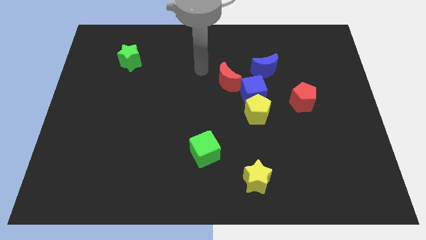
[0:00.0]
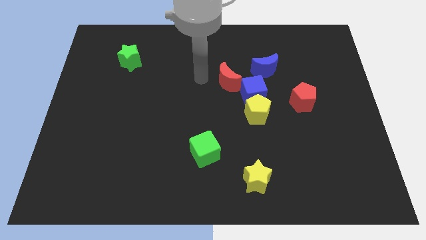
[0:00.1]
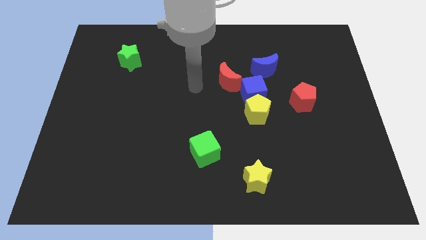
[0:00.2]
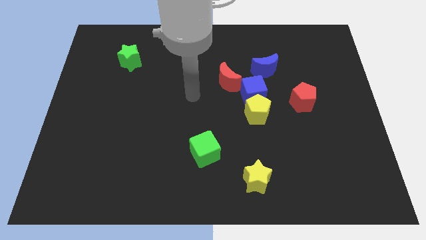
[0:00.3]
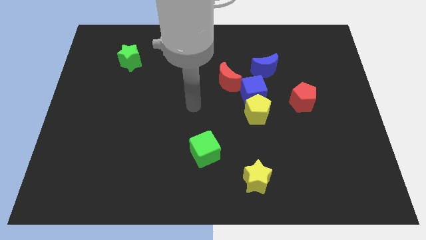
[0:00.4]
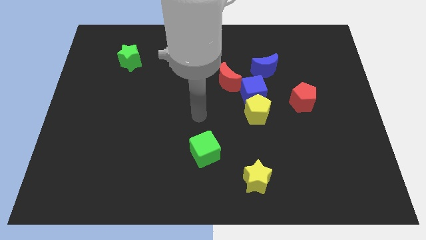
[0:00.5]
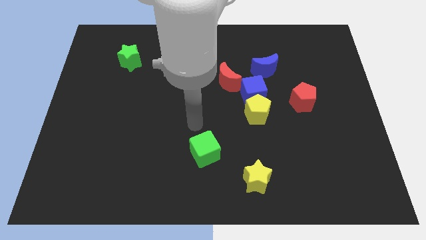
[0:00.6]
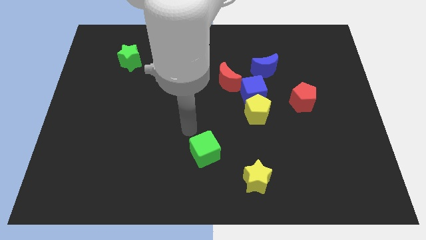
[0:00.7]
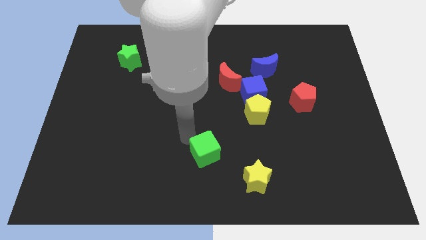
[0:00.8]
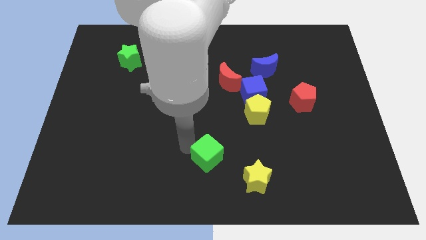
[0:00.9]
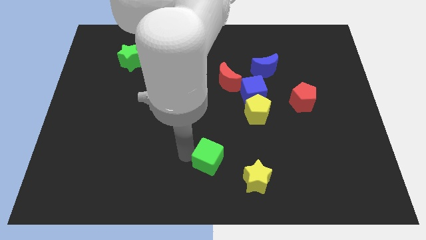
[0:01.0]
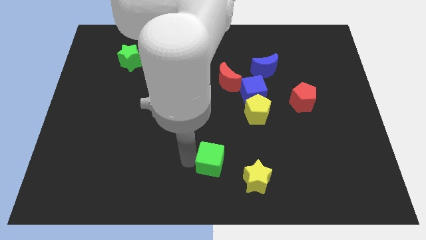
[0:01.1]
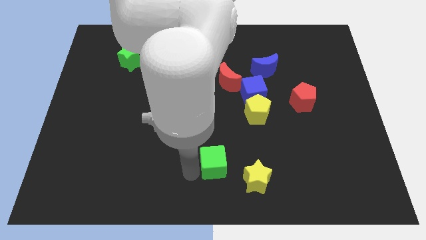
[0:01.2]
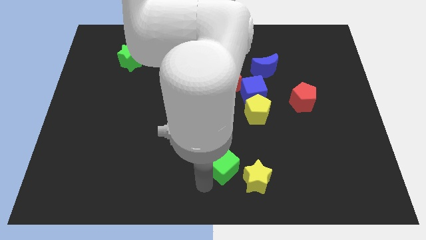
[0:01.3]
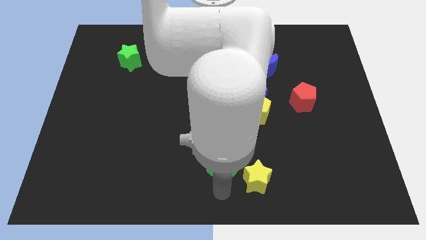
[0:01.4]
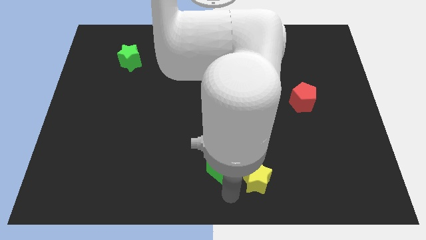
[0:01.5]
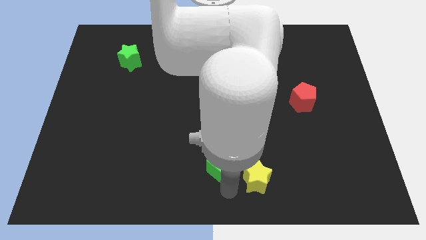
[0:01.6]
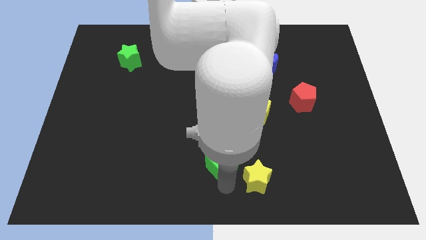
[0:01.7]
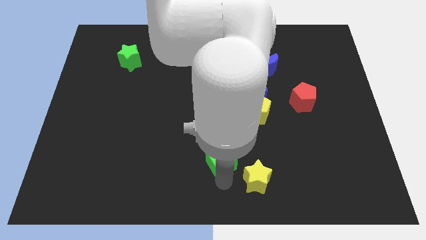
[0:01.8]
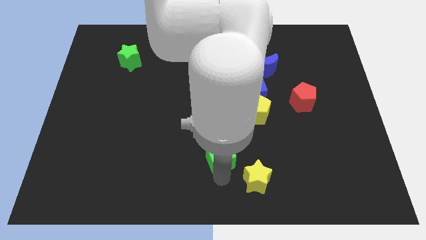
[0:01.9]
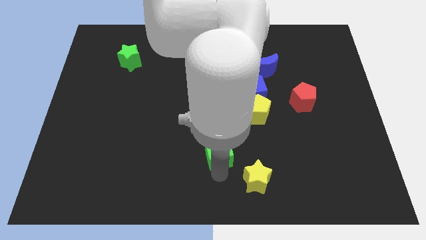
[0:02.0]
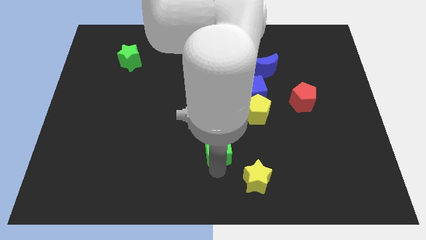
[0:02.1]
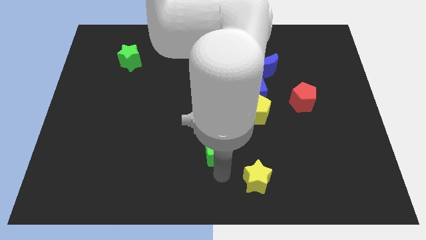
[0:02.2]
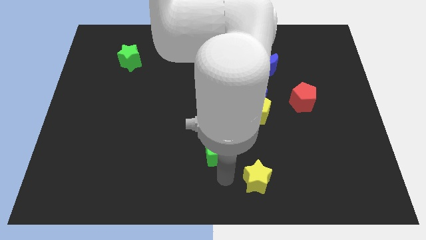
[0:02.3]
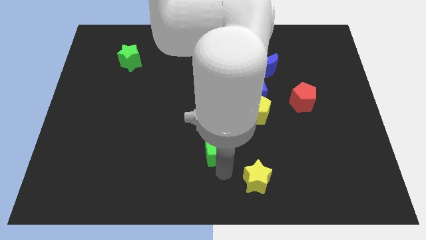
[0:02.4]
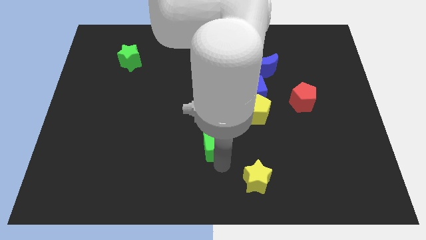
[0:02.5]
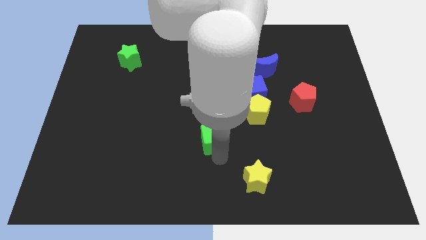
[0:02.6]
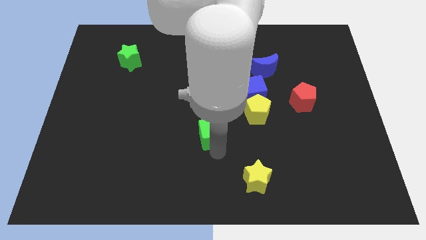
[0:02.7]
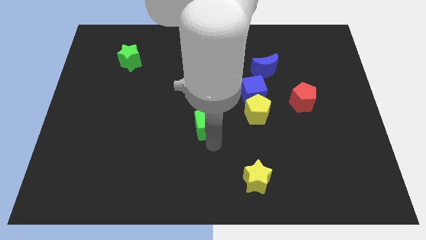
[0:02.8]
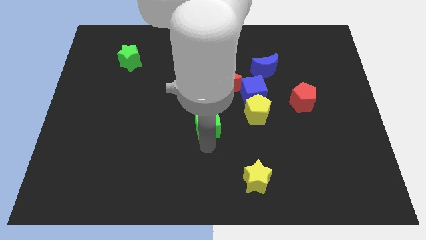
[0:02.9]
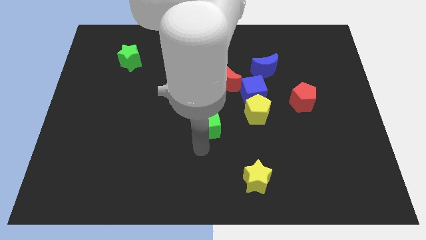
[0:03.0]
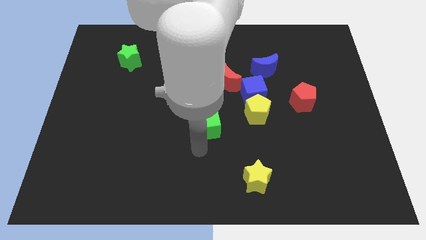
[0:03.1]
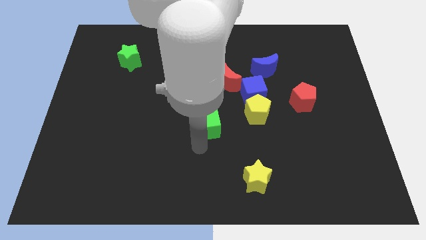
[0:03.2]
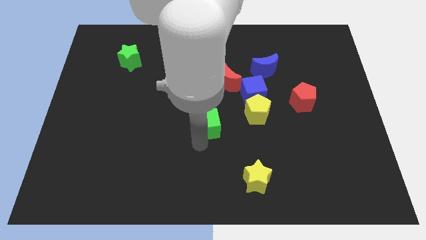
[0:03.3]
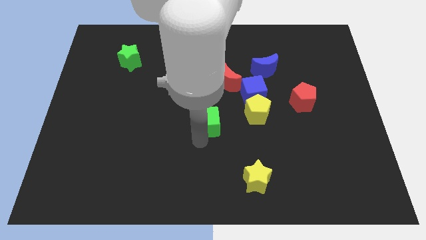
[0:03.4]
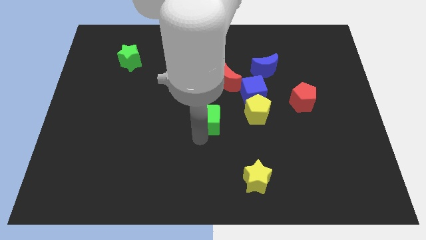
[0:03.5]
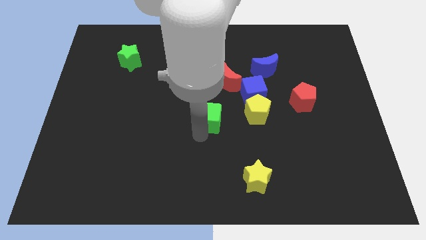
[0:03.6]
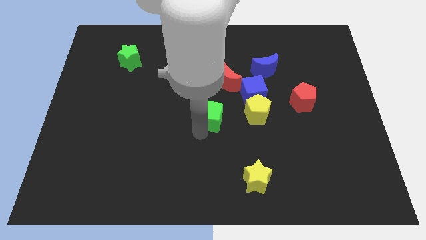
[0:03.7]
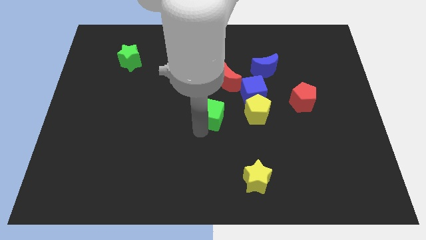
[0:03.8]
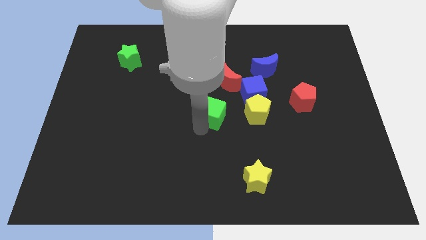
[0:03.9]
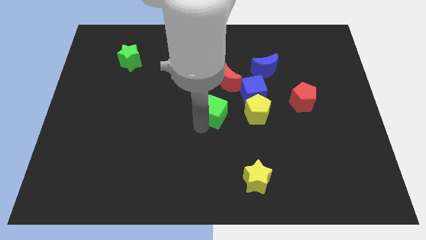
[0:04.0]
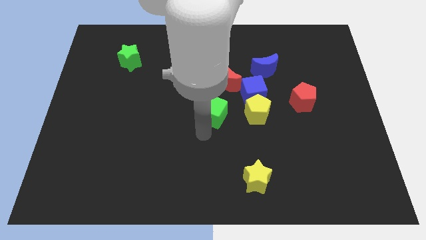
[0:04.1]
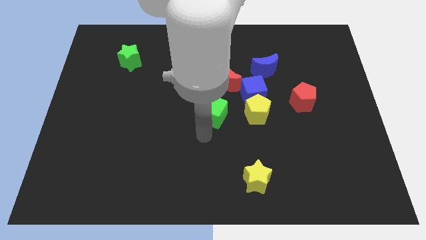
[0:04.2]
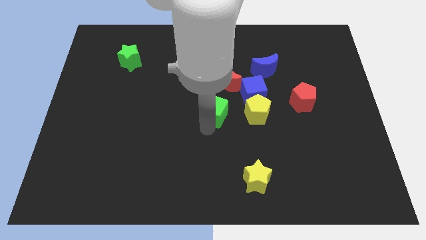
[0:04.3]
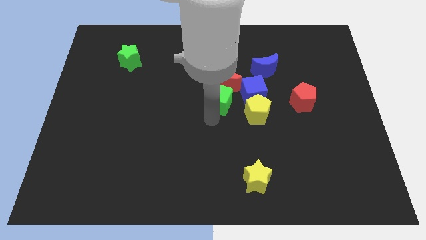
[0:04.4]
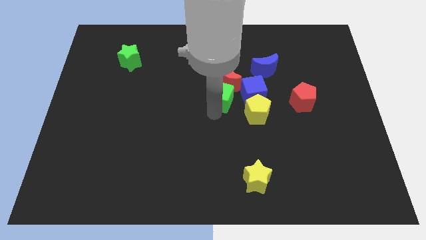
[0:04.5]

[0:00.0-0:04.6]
move the green cube towards the red moon

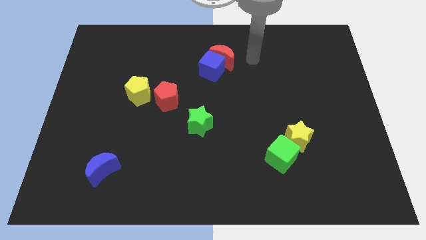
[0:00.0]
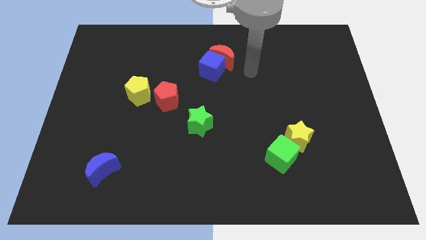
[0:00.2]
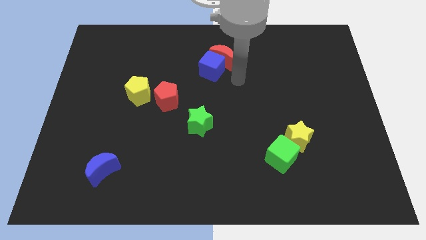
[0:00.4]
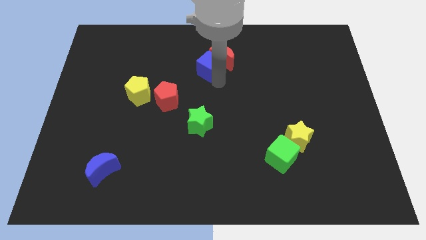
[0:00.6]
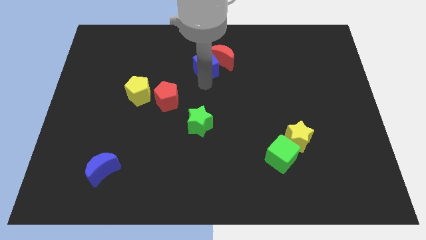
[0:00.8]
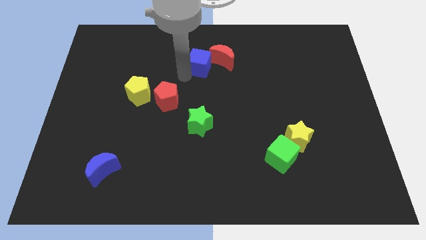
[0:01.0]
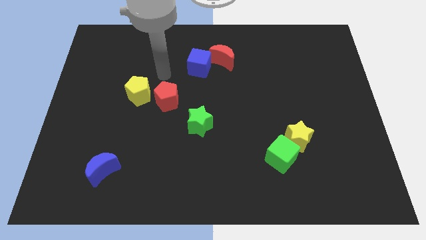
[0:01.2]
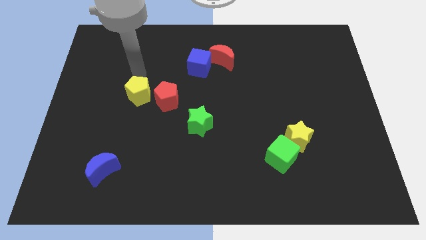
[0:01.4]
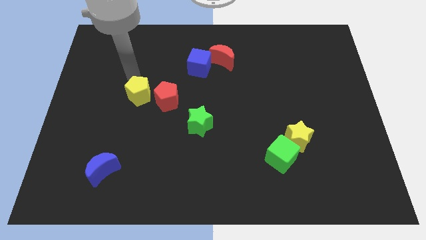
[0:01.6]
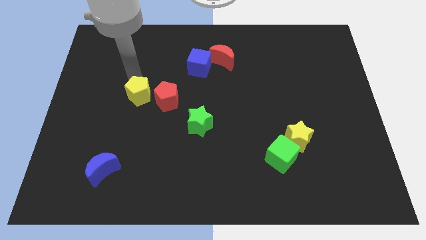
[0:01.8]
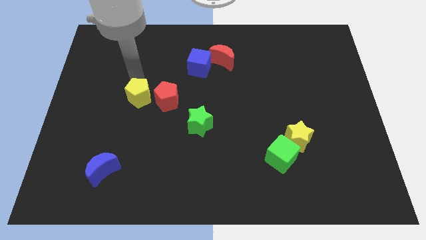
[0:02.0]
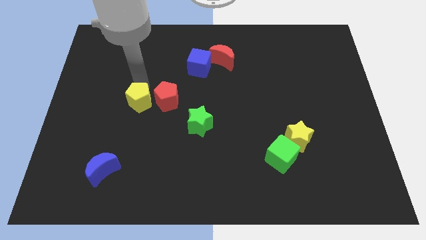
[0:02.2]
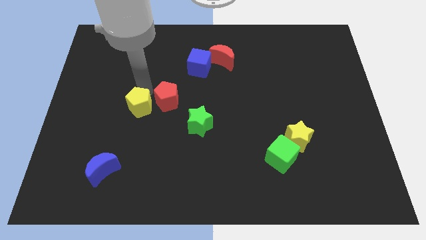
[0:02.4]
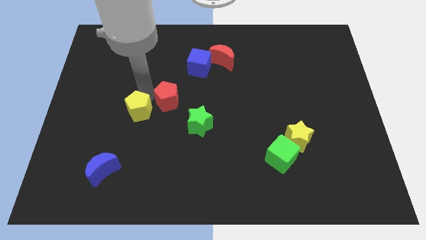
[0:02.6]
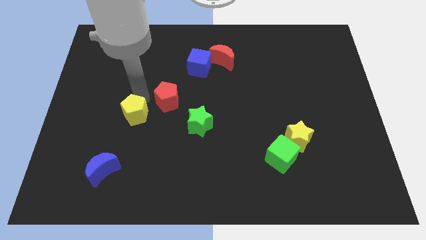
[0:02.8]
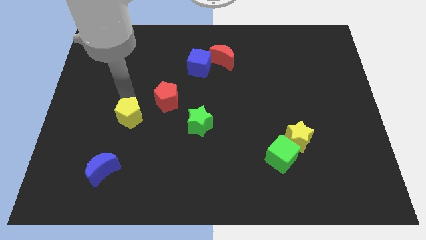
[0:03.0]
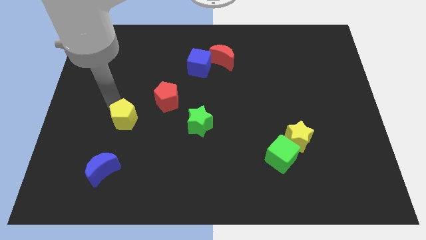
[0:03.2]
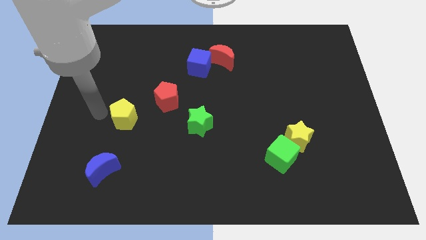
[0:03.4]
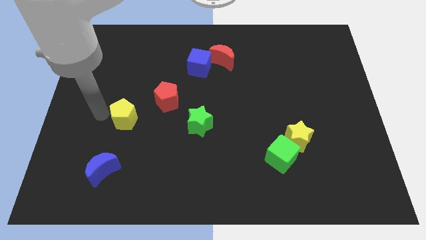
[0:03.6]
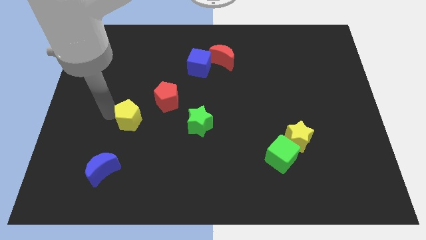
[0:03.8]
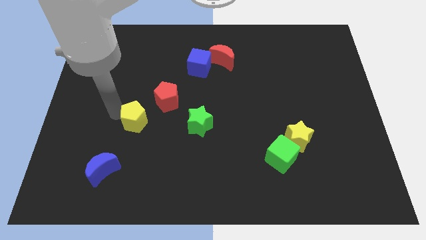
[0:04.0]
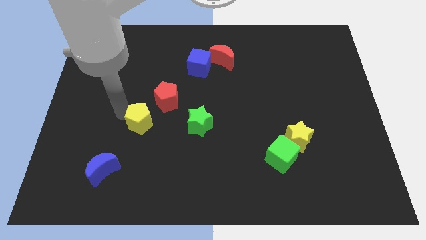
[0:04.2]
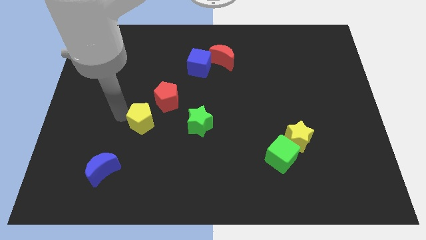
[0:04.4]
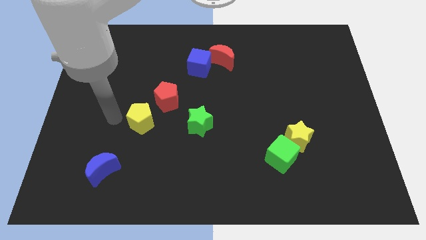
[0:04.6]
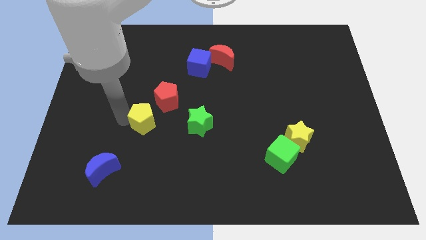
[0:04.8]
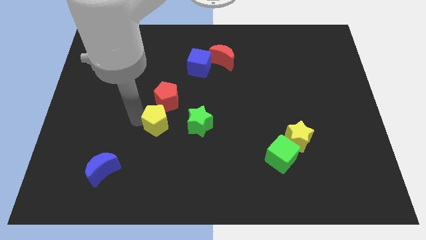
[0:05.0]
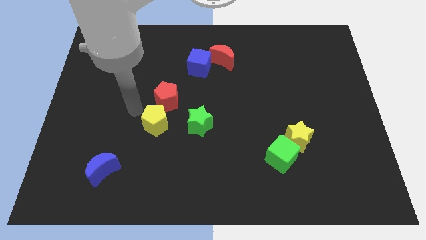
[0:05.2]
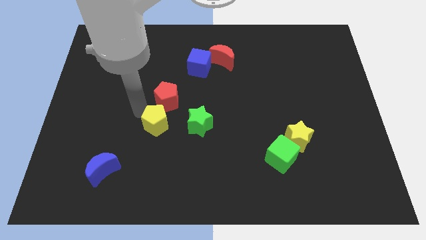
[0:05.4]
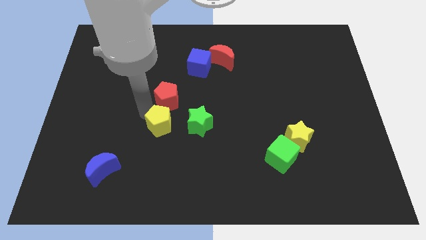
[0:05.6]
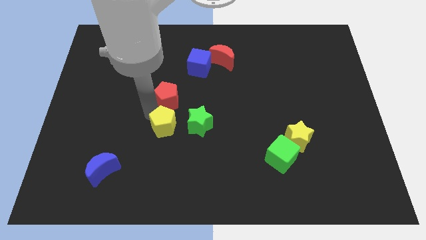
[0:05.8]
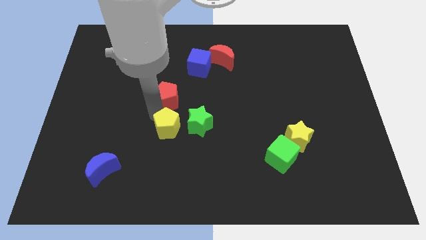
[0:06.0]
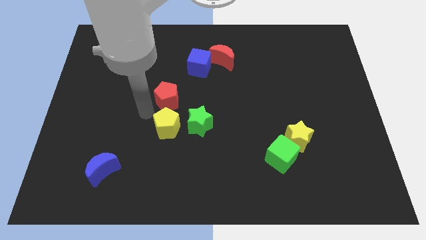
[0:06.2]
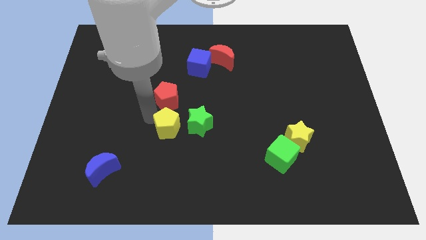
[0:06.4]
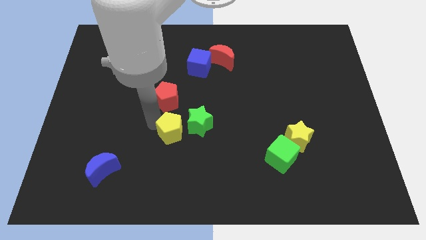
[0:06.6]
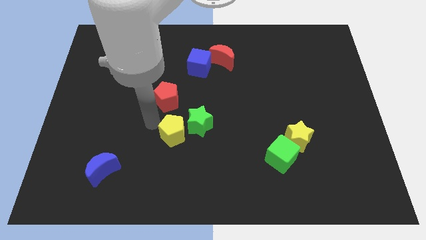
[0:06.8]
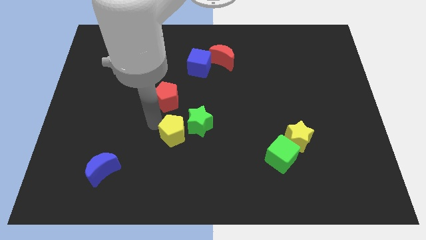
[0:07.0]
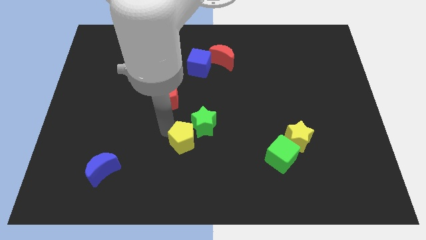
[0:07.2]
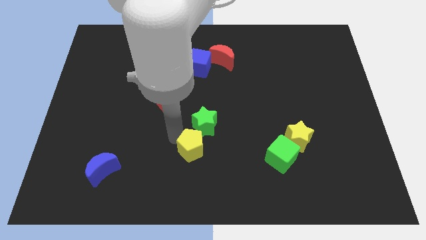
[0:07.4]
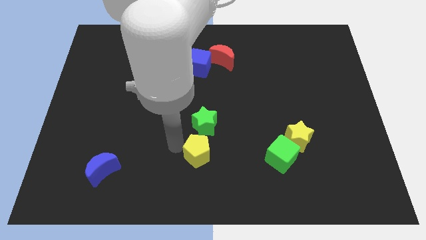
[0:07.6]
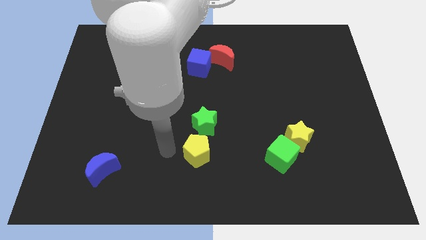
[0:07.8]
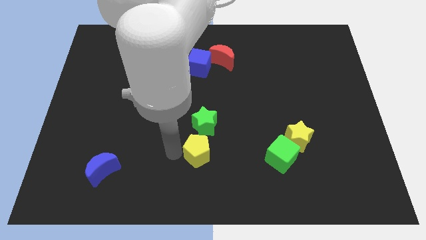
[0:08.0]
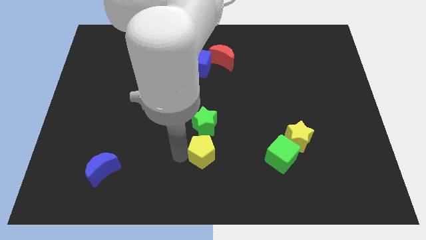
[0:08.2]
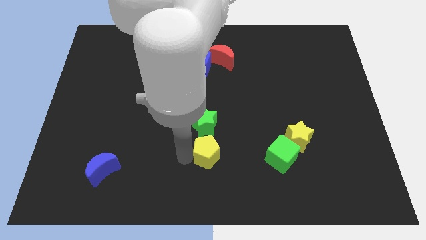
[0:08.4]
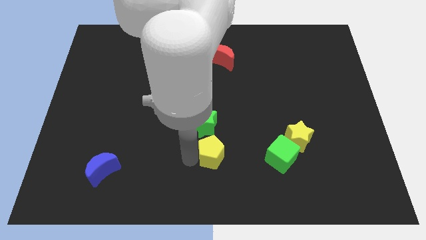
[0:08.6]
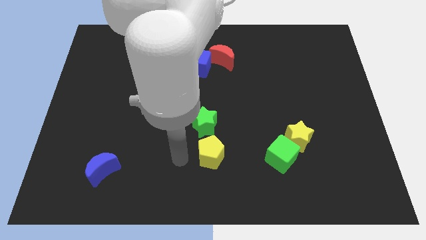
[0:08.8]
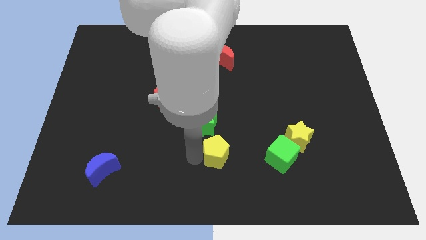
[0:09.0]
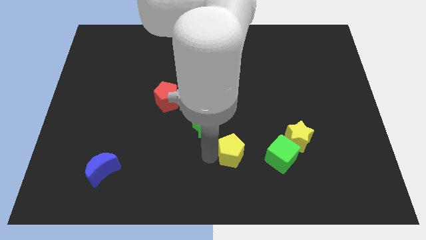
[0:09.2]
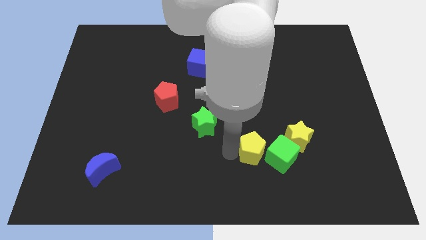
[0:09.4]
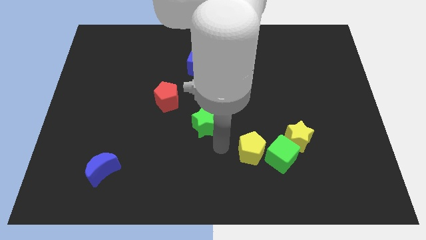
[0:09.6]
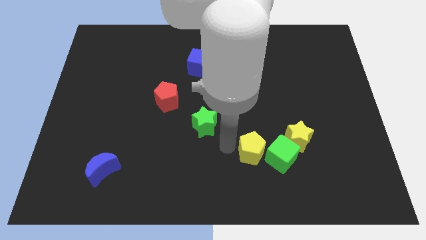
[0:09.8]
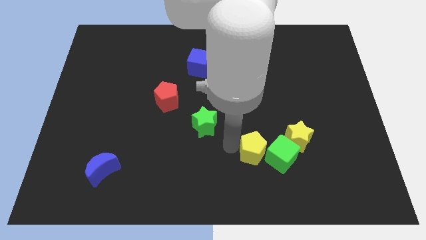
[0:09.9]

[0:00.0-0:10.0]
push the yellow pentagon towards the green cube
